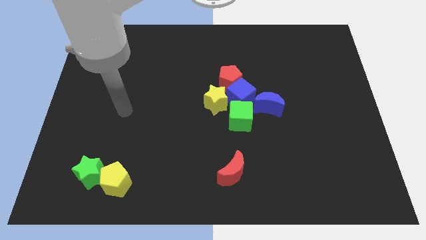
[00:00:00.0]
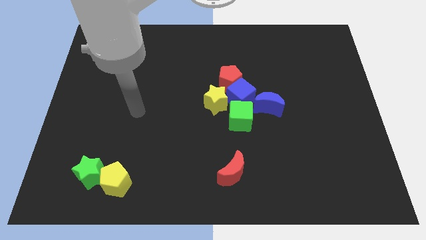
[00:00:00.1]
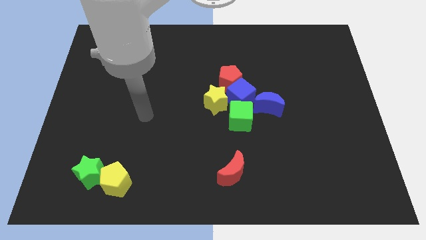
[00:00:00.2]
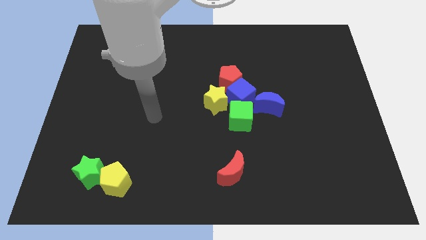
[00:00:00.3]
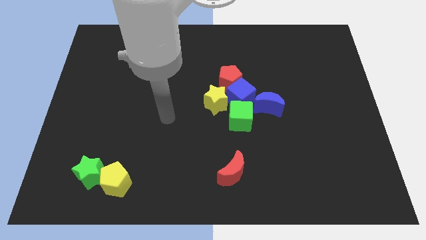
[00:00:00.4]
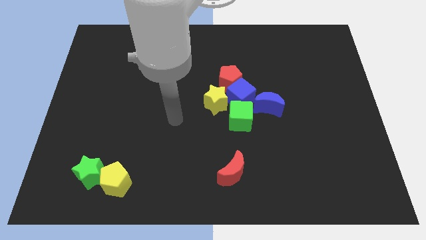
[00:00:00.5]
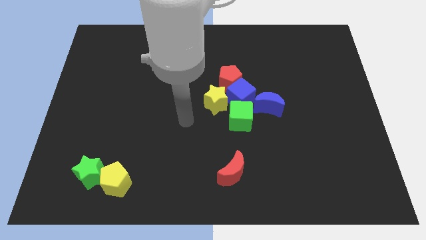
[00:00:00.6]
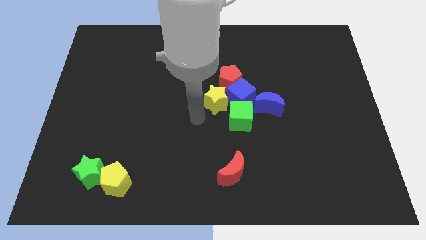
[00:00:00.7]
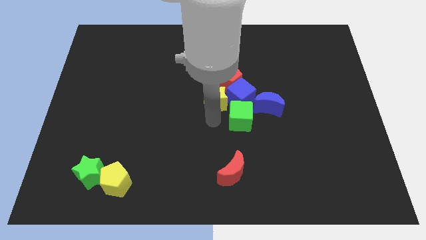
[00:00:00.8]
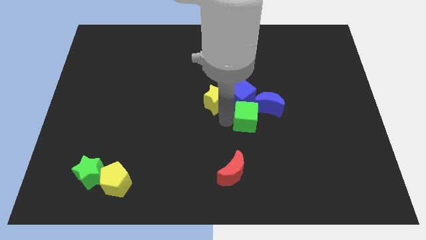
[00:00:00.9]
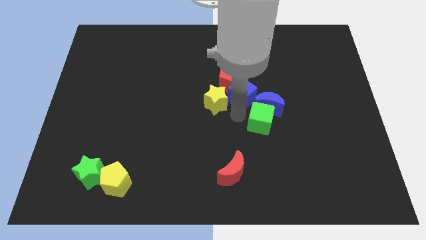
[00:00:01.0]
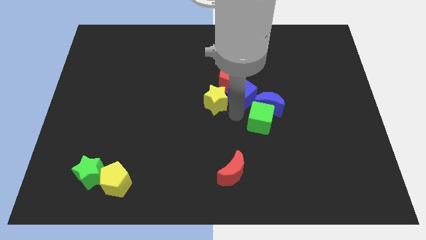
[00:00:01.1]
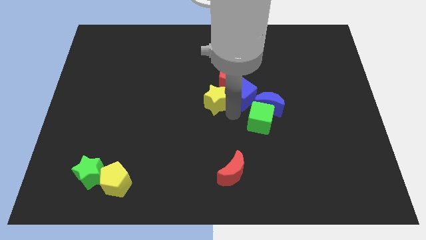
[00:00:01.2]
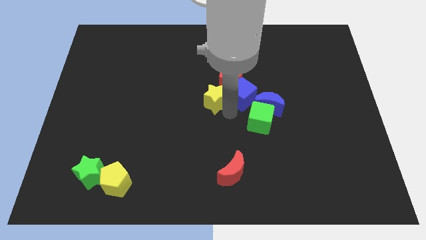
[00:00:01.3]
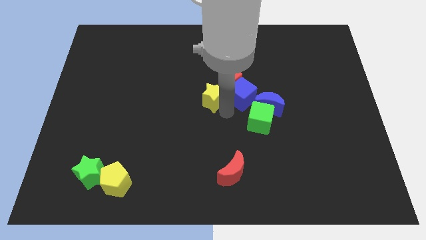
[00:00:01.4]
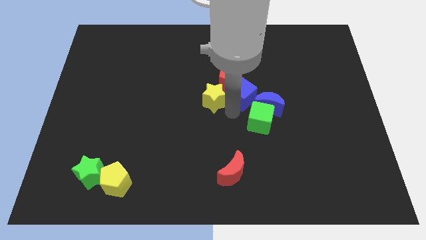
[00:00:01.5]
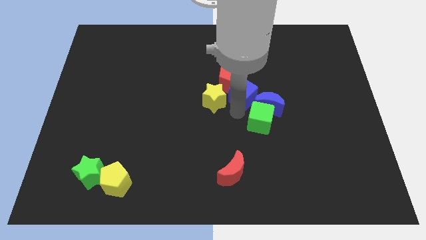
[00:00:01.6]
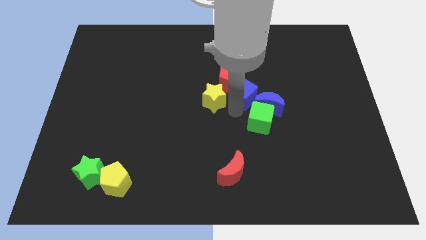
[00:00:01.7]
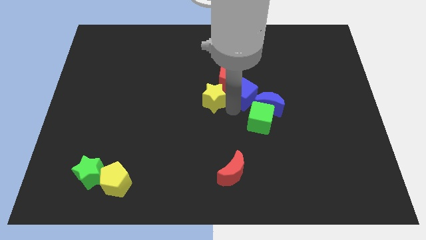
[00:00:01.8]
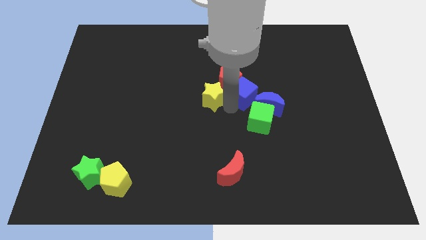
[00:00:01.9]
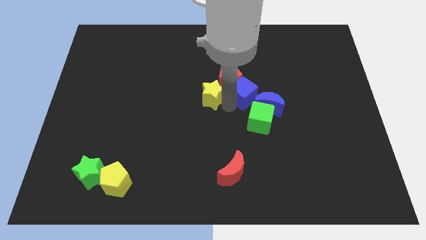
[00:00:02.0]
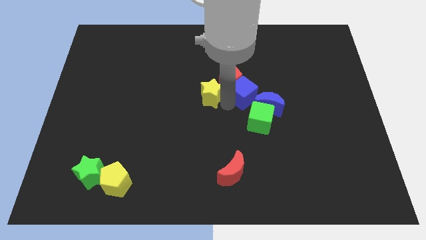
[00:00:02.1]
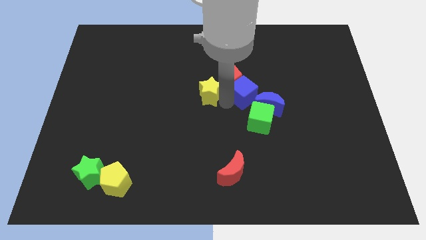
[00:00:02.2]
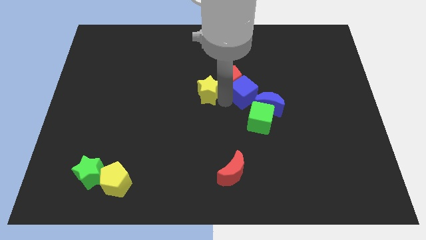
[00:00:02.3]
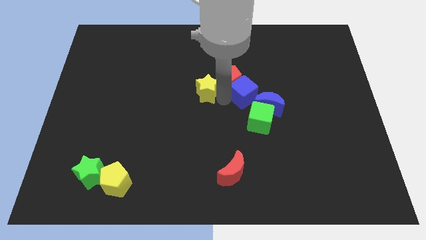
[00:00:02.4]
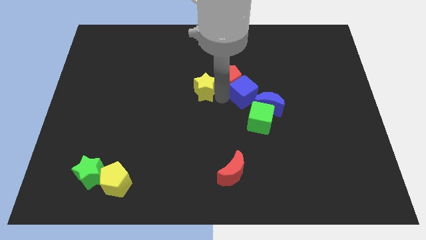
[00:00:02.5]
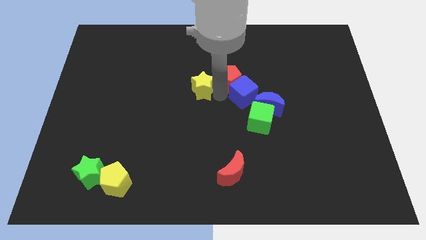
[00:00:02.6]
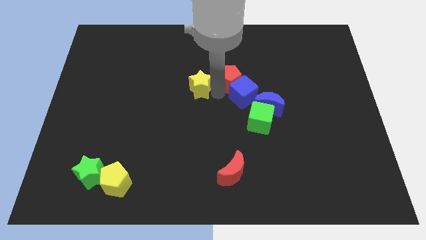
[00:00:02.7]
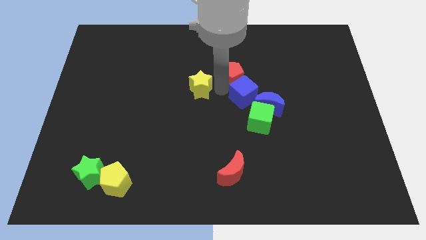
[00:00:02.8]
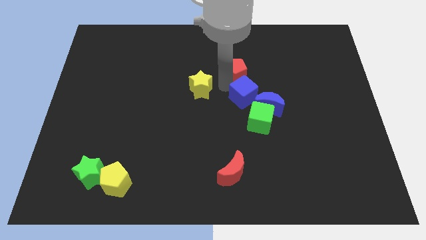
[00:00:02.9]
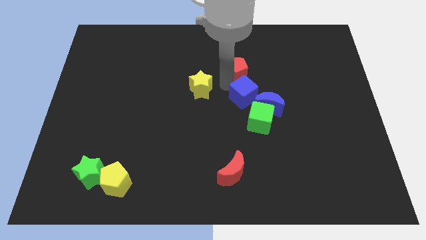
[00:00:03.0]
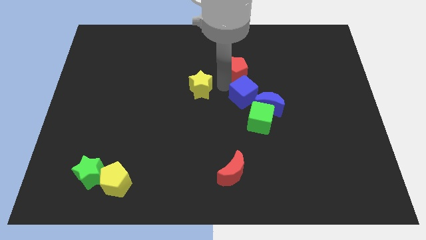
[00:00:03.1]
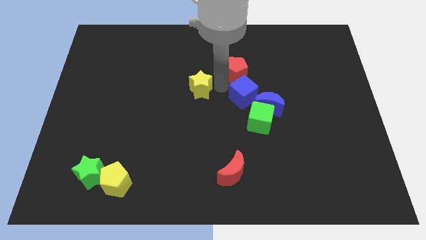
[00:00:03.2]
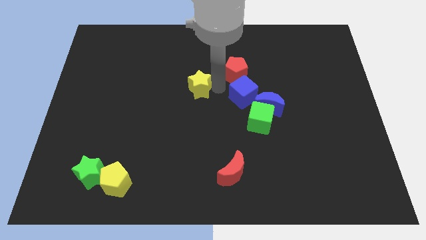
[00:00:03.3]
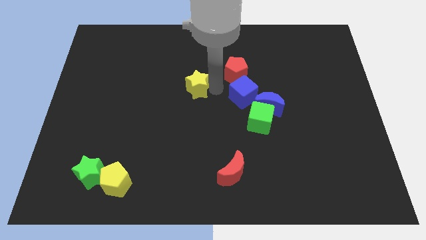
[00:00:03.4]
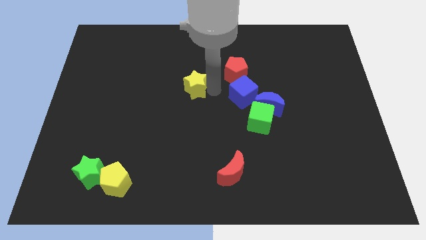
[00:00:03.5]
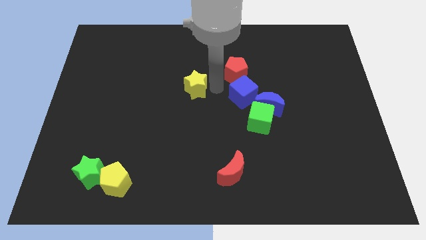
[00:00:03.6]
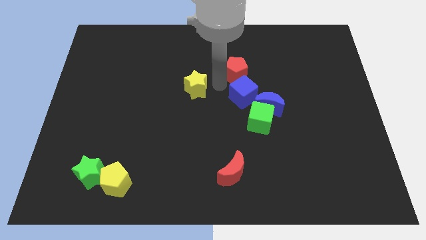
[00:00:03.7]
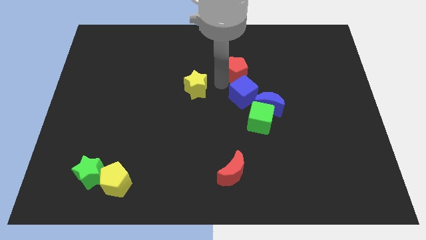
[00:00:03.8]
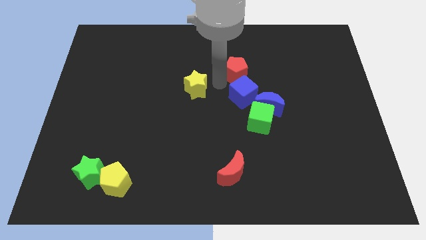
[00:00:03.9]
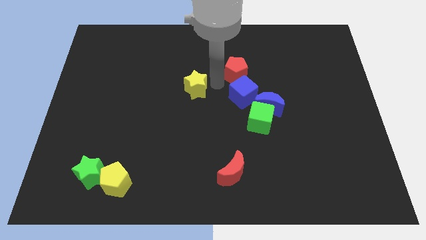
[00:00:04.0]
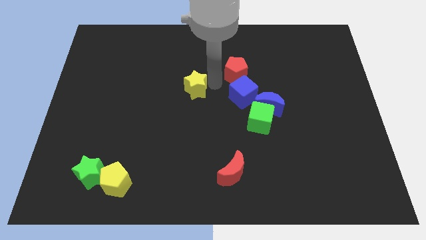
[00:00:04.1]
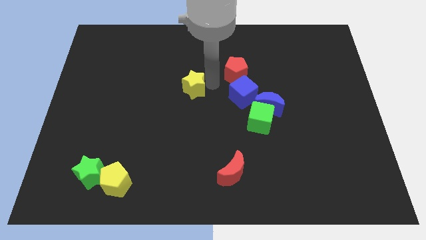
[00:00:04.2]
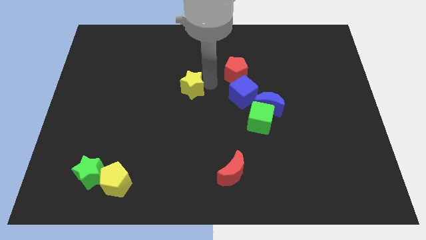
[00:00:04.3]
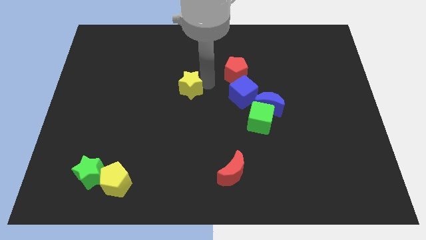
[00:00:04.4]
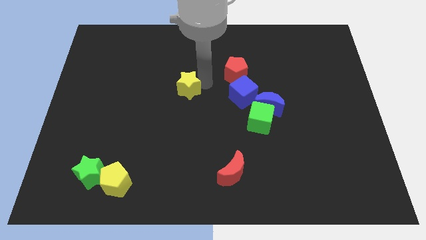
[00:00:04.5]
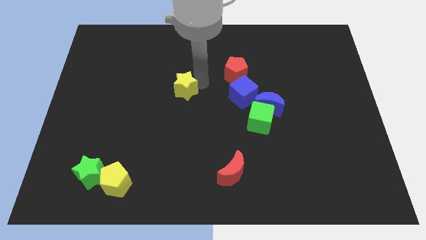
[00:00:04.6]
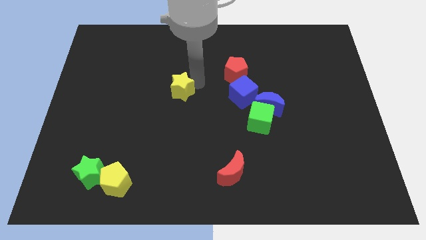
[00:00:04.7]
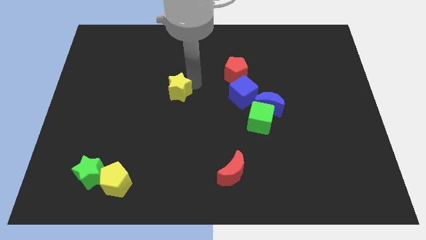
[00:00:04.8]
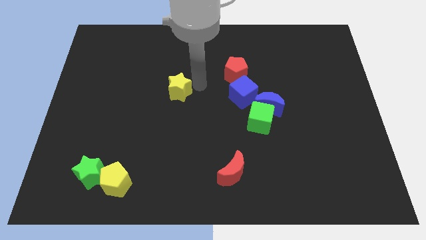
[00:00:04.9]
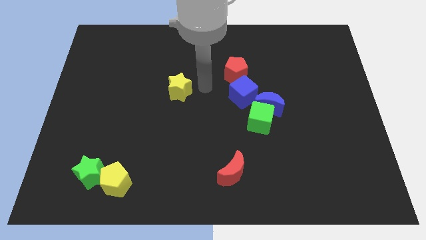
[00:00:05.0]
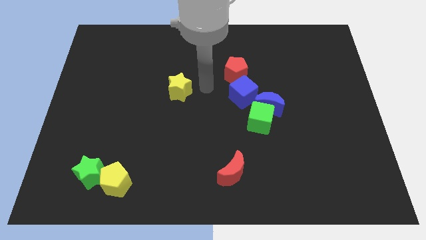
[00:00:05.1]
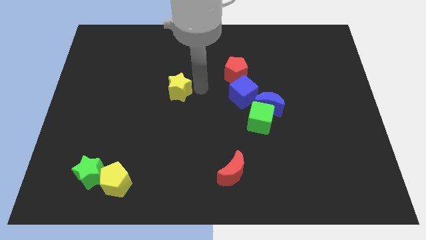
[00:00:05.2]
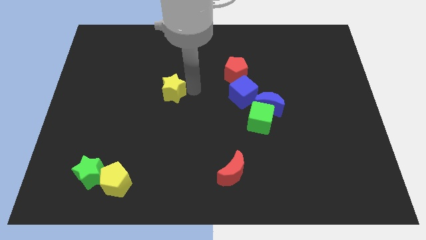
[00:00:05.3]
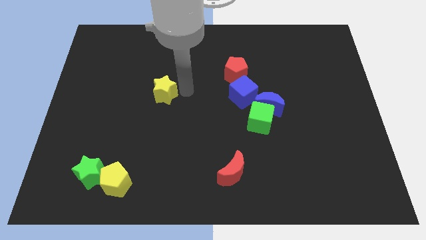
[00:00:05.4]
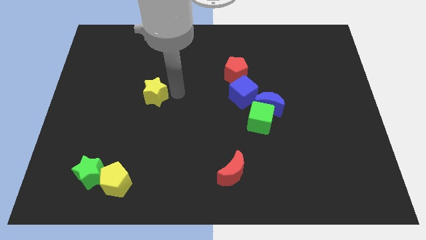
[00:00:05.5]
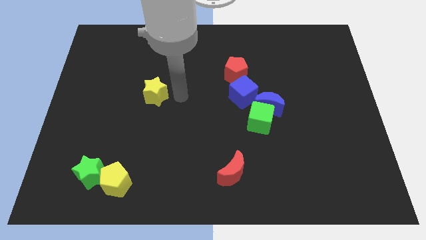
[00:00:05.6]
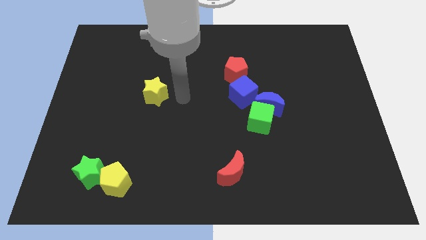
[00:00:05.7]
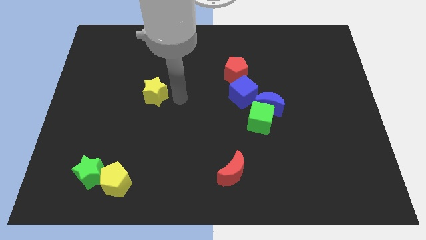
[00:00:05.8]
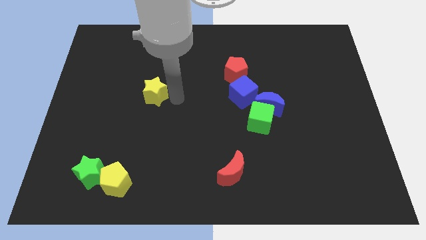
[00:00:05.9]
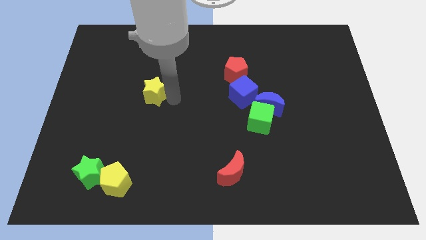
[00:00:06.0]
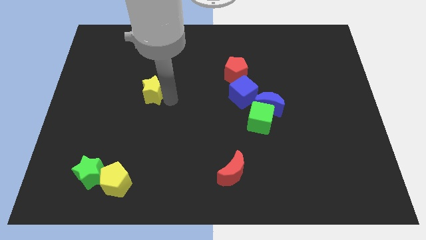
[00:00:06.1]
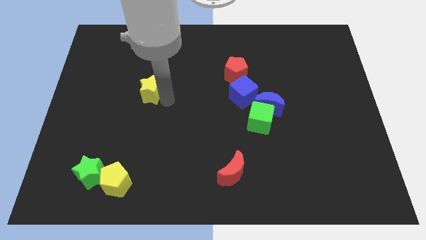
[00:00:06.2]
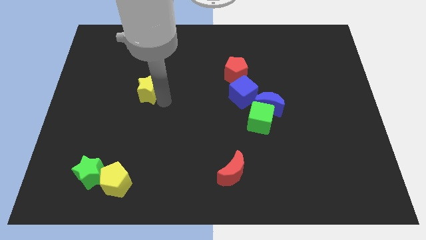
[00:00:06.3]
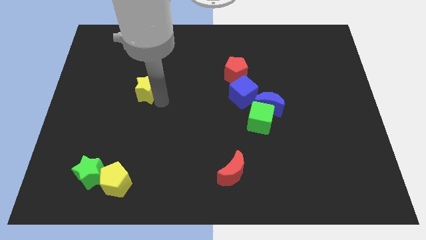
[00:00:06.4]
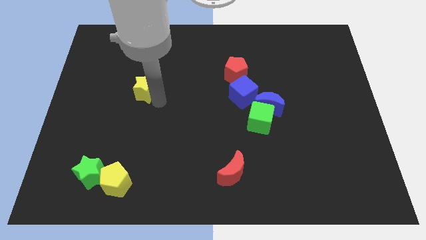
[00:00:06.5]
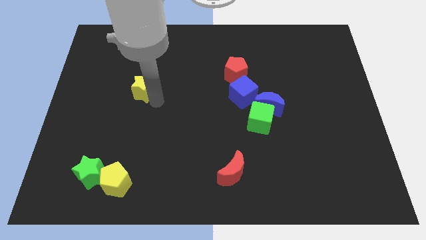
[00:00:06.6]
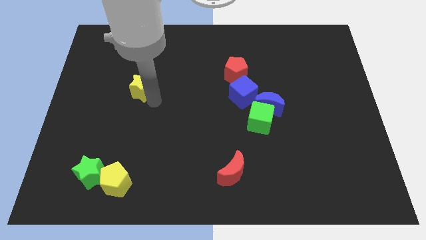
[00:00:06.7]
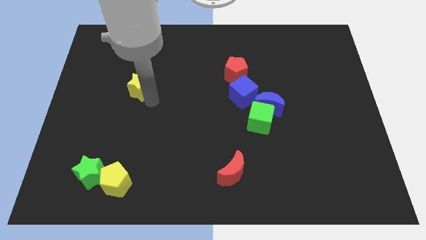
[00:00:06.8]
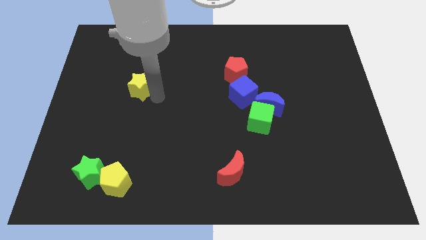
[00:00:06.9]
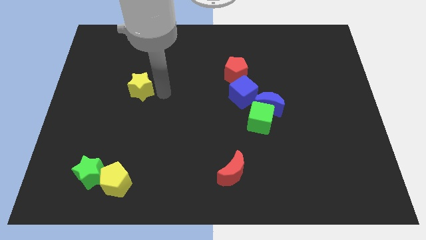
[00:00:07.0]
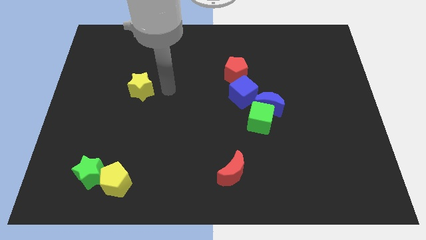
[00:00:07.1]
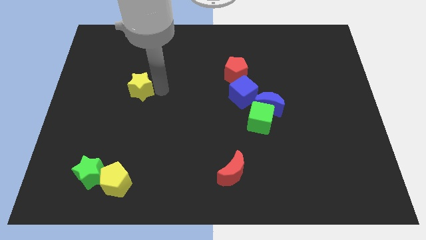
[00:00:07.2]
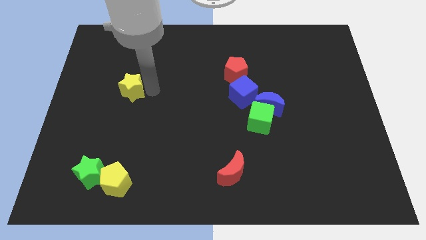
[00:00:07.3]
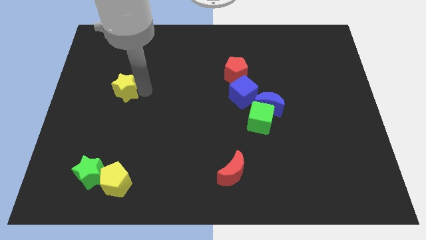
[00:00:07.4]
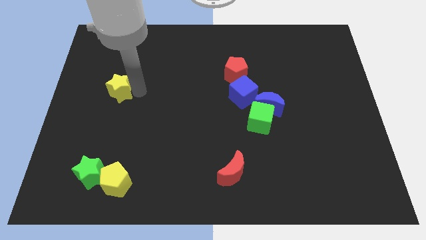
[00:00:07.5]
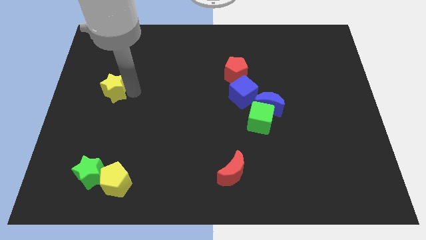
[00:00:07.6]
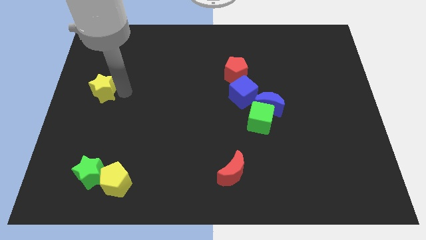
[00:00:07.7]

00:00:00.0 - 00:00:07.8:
move the yellow star to the left side
